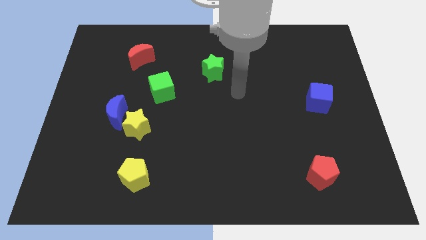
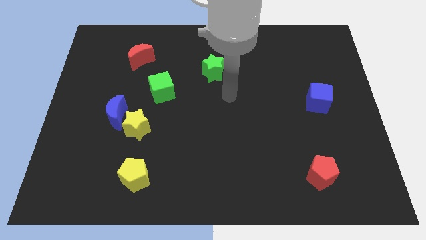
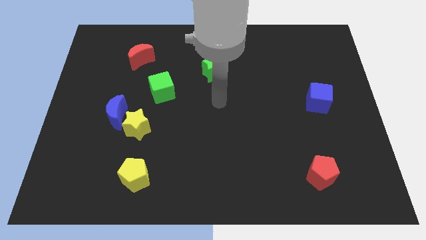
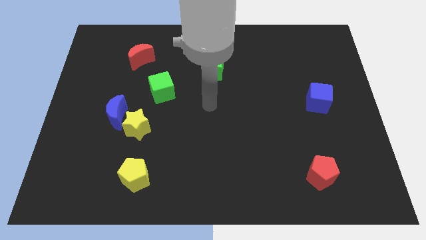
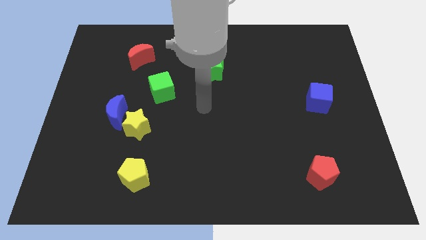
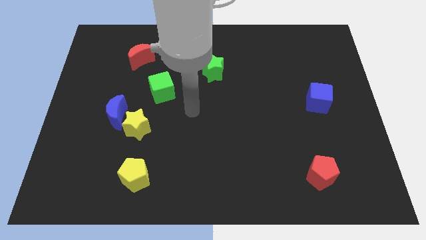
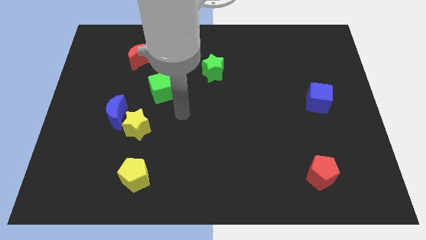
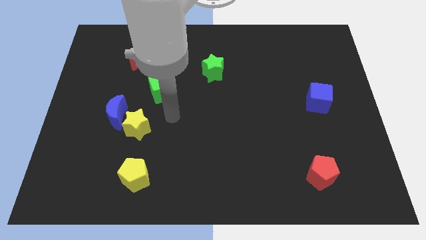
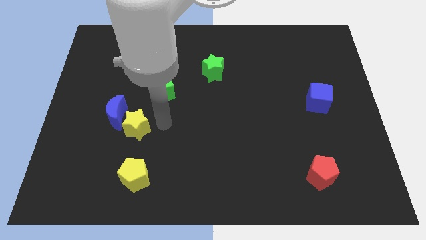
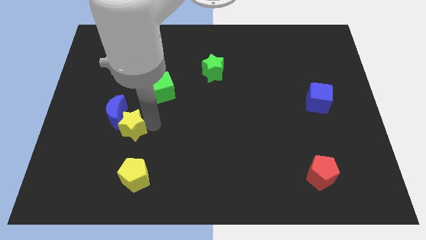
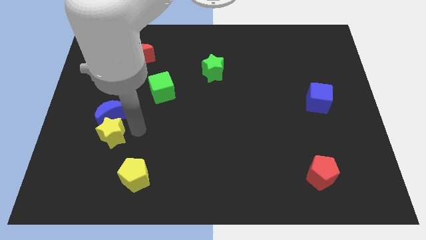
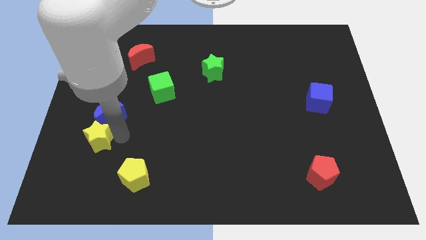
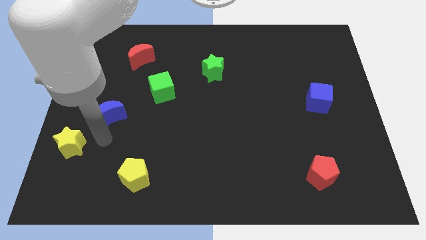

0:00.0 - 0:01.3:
move the blue moon away from the yellow star

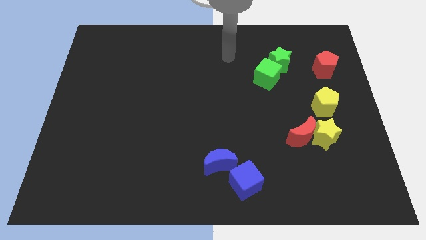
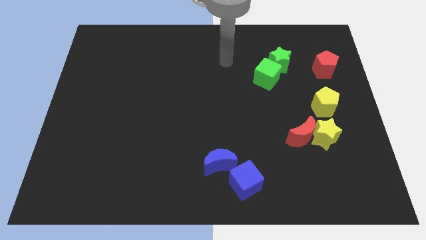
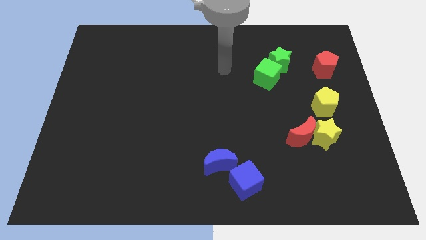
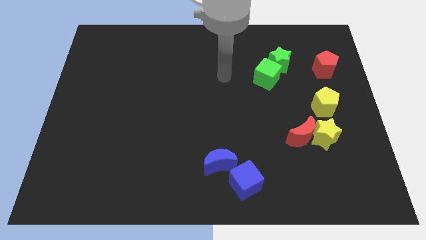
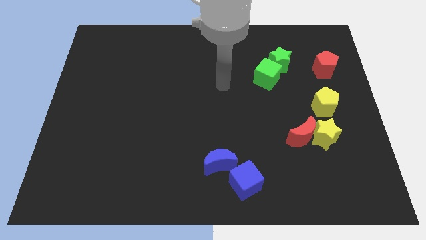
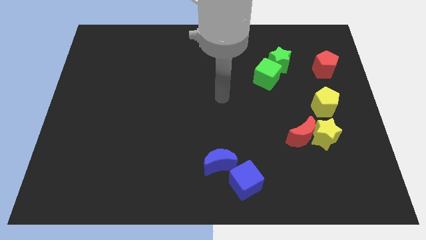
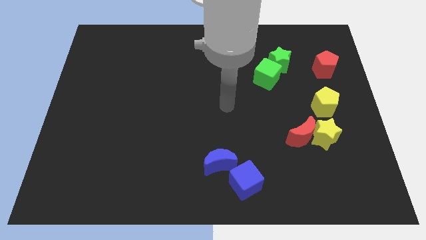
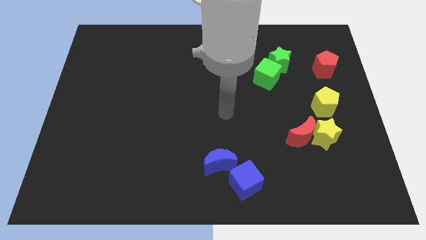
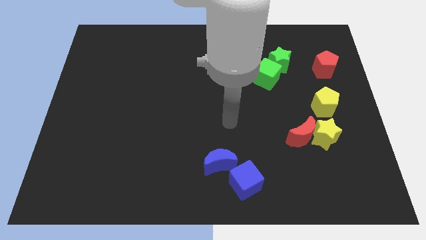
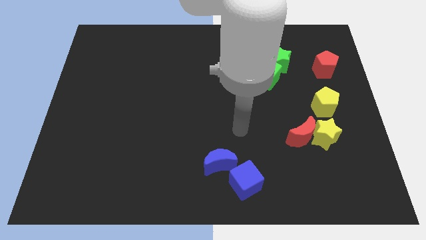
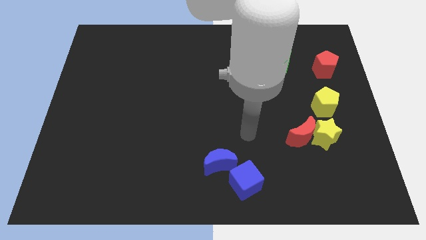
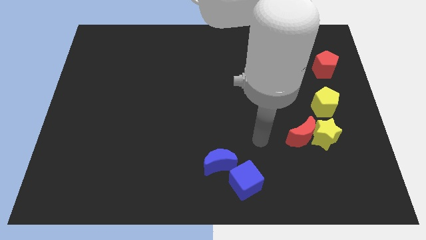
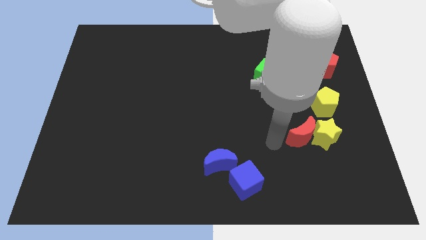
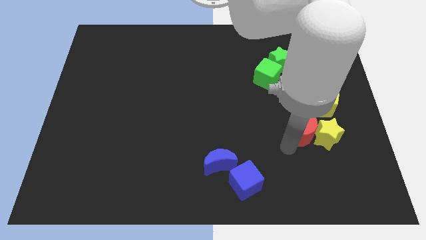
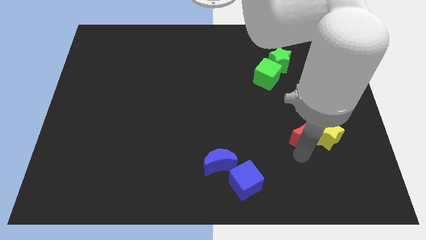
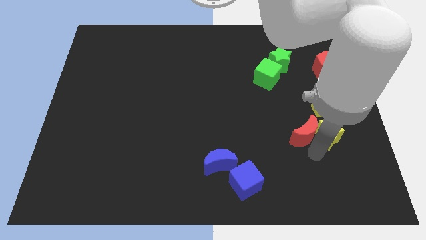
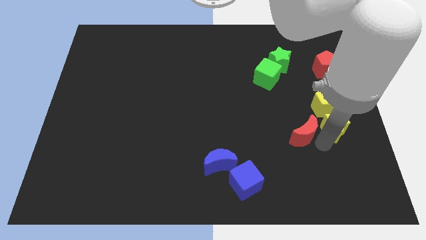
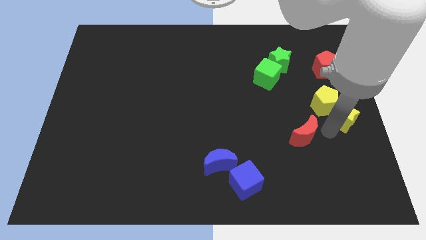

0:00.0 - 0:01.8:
move the red moon away from the yellow star

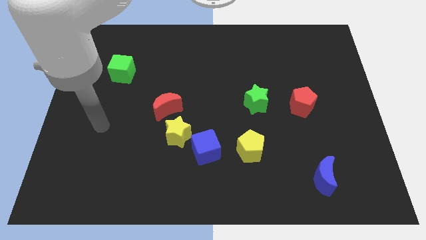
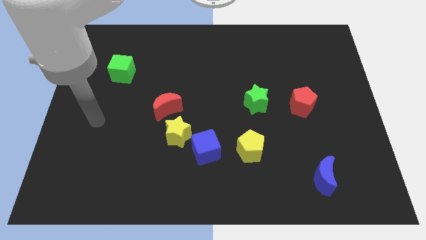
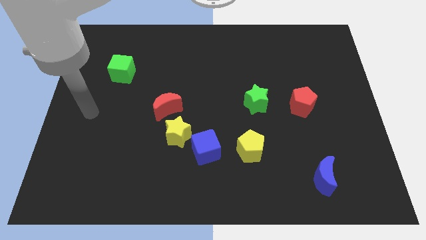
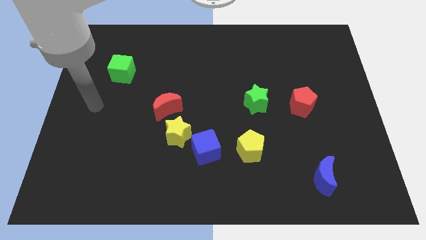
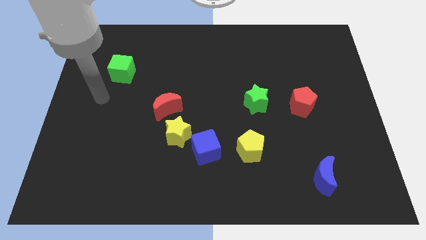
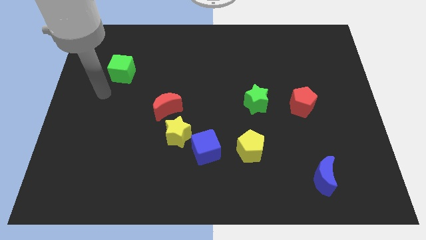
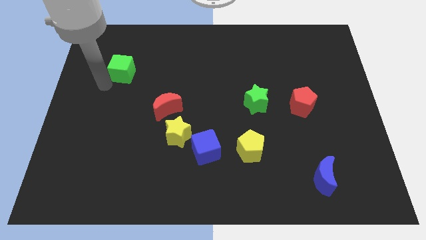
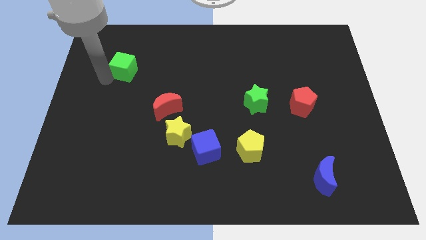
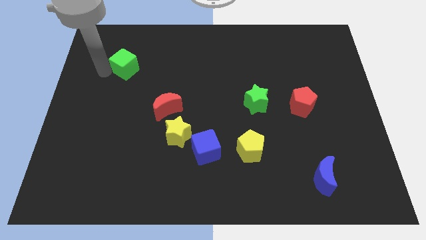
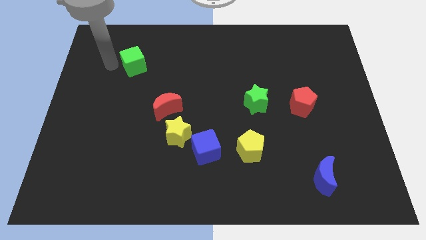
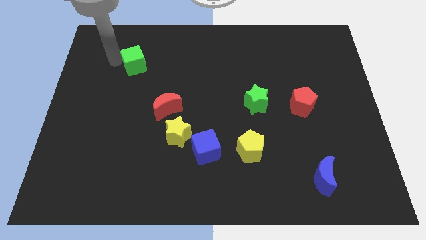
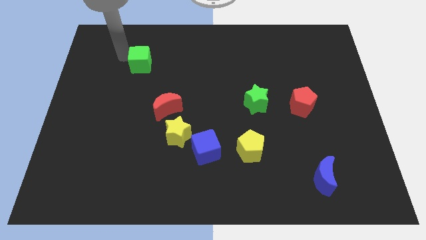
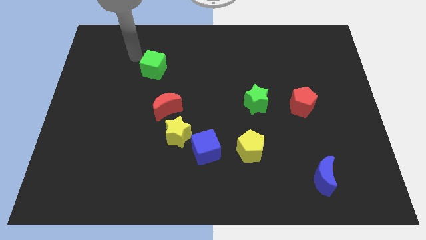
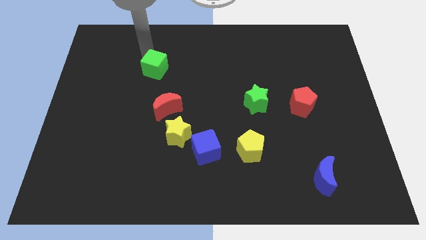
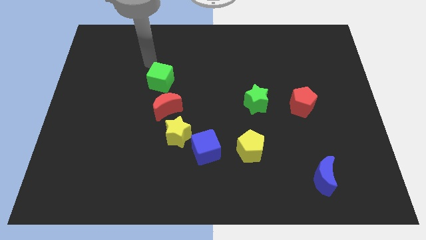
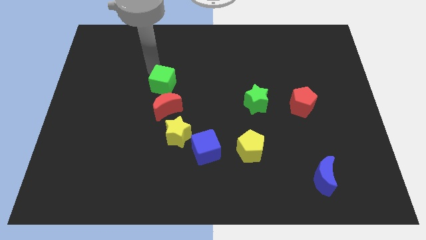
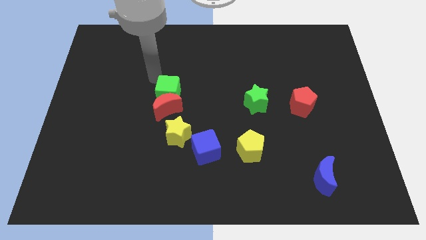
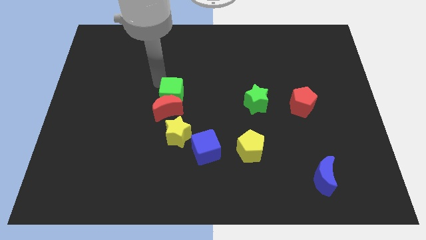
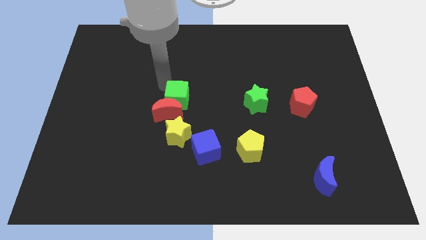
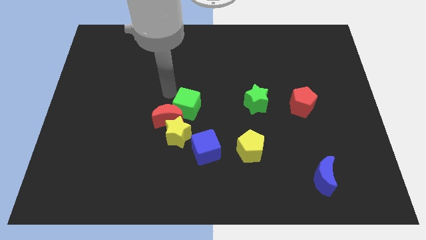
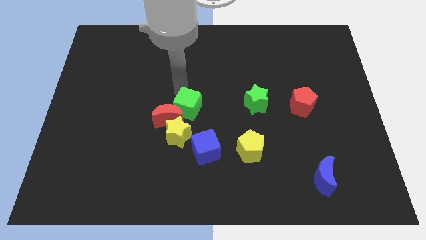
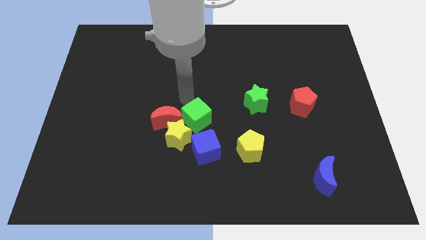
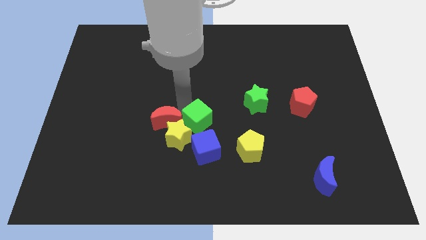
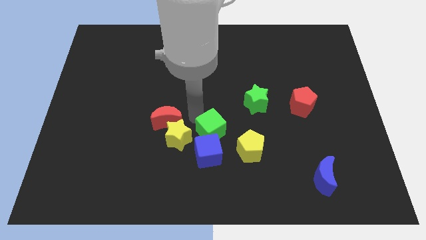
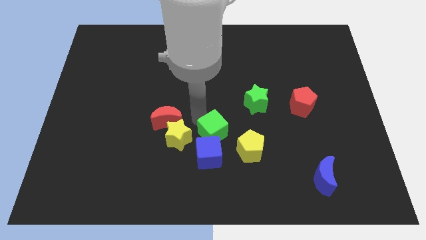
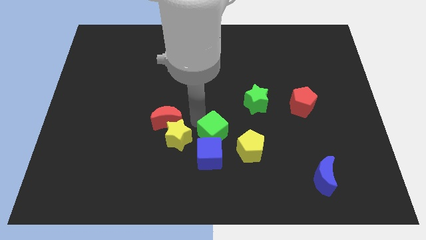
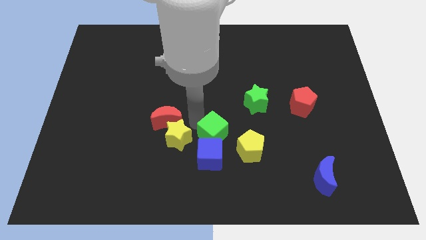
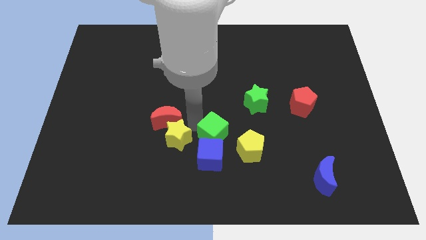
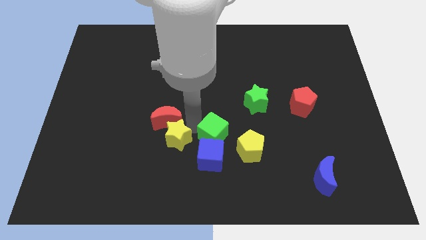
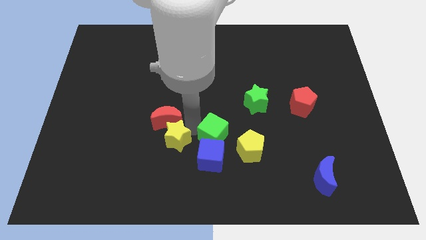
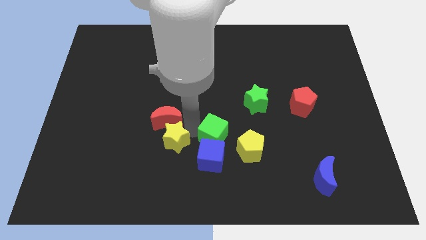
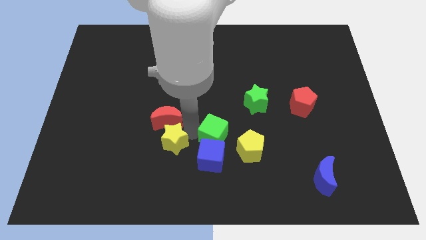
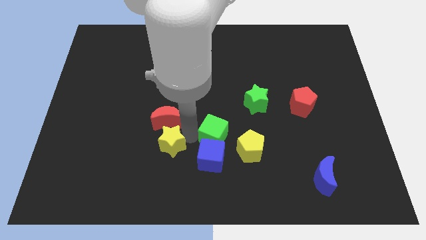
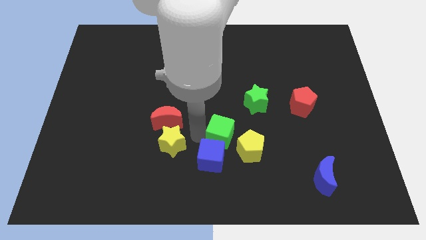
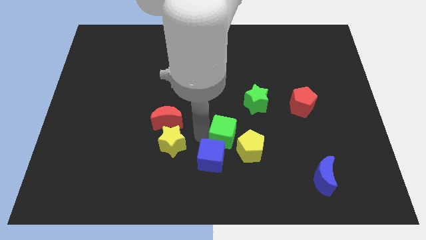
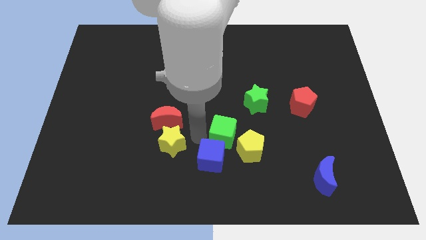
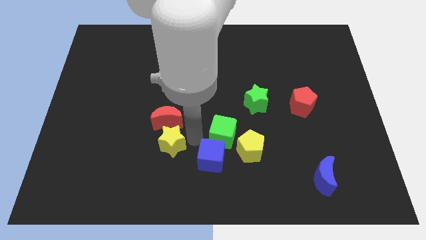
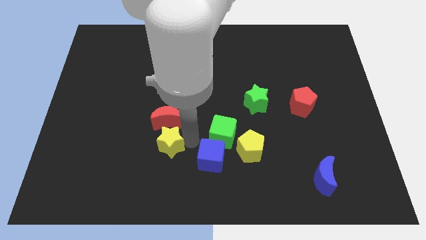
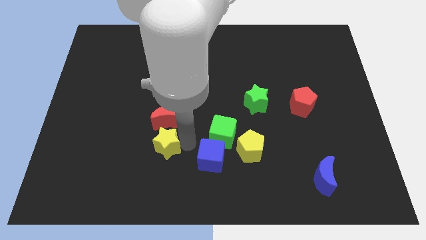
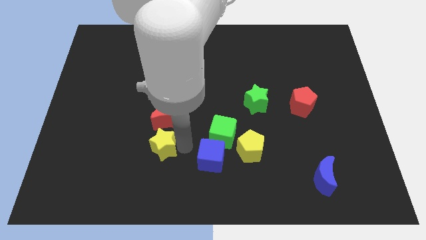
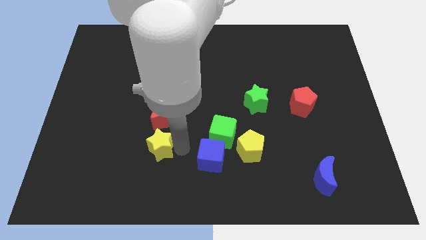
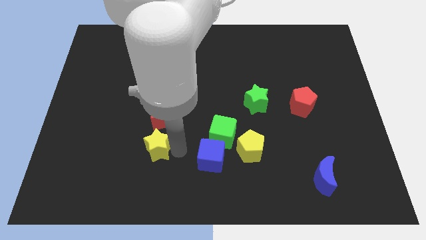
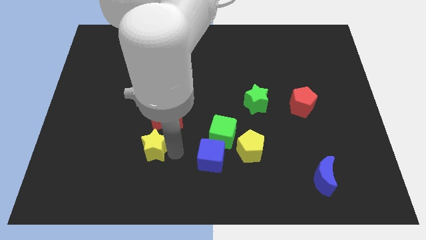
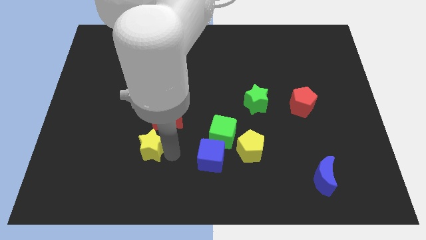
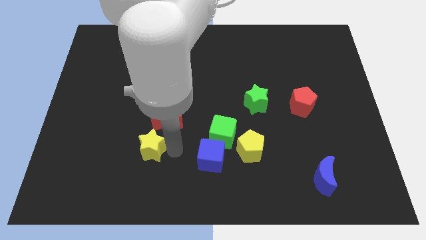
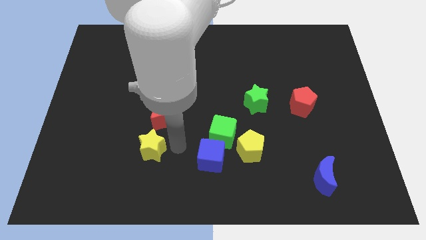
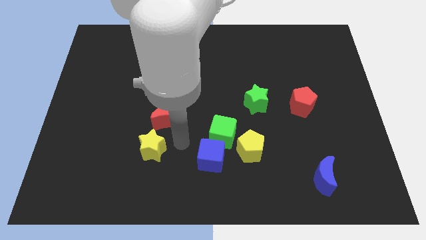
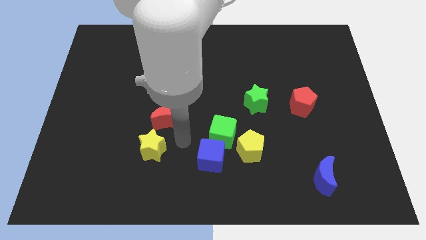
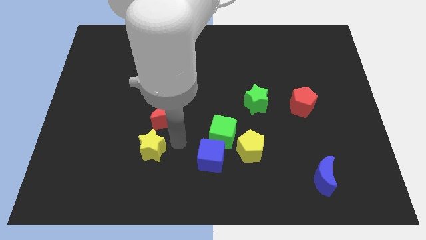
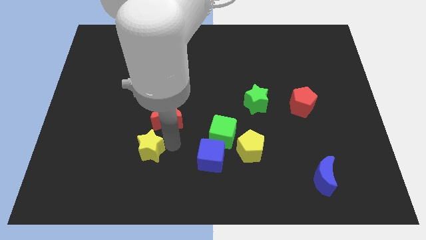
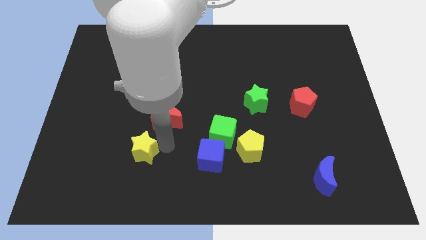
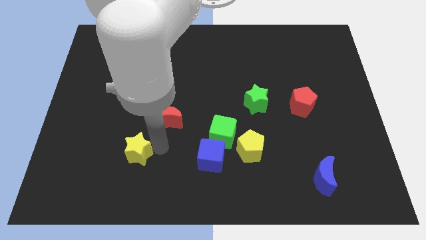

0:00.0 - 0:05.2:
move the yellow star away from the blue cube and red moon

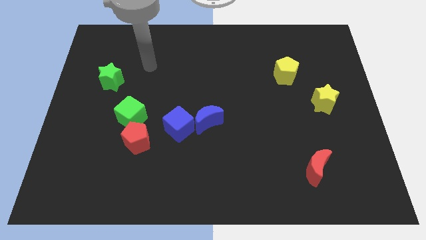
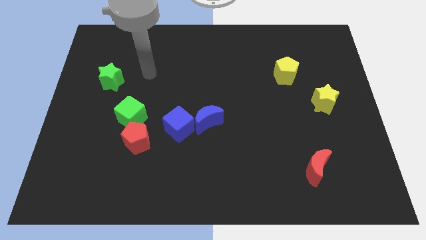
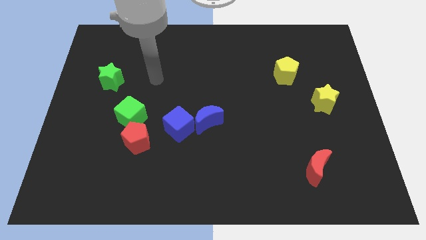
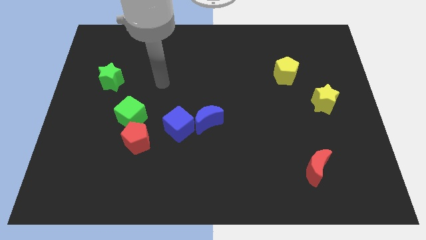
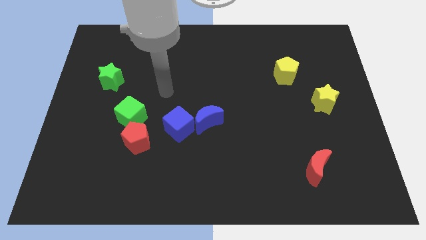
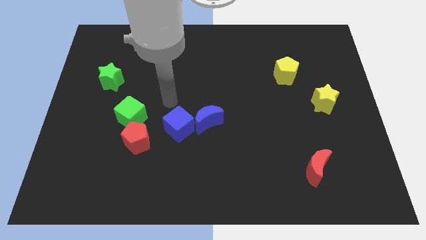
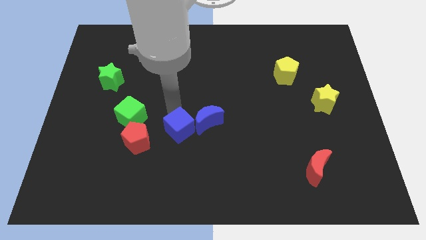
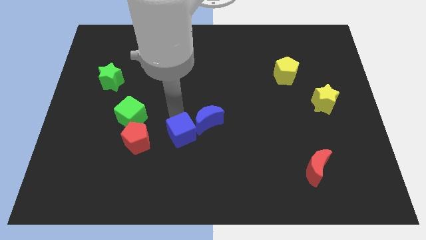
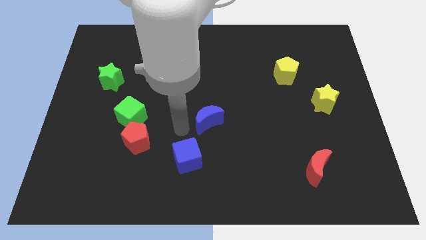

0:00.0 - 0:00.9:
pull the blue moon apart from the blue cube

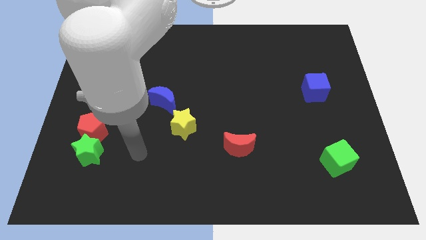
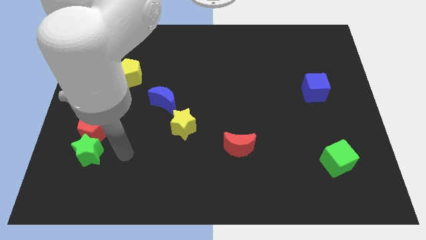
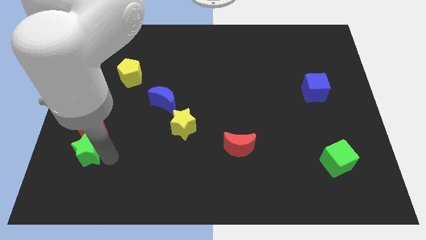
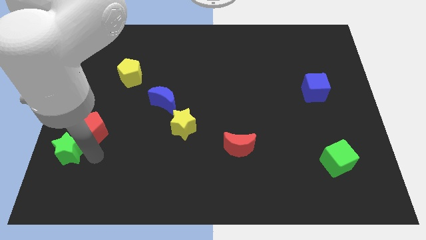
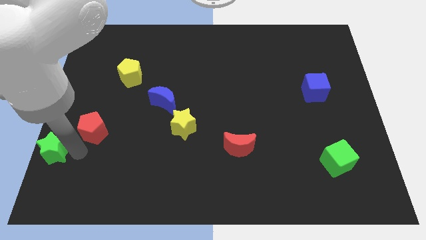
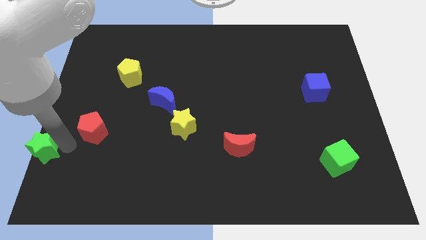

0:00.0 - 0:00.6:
separate the red pentagon from the green star
